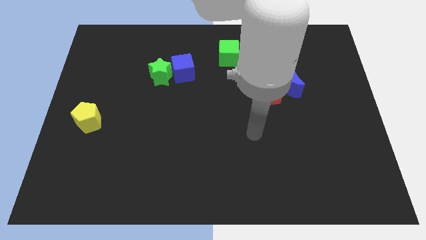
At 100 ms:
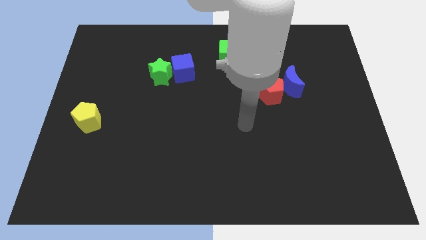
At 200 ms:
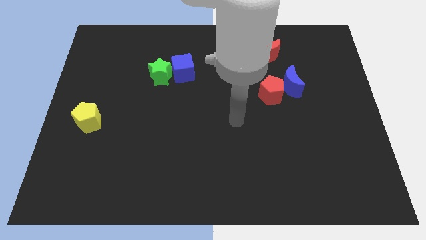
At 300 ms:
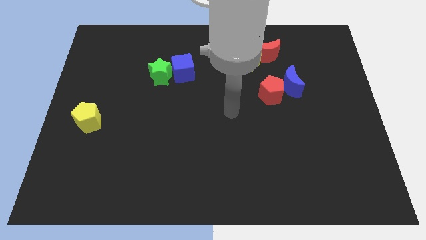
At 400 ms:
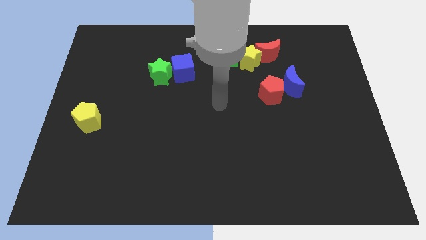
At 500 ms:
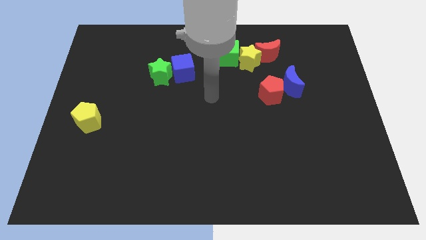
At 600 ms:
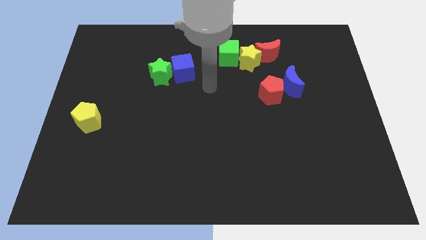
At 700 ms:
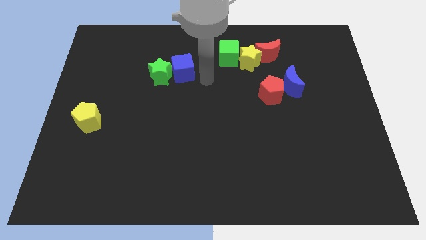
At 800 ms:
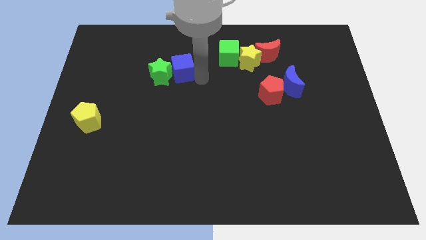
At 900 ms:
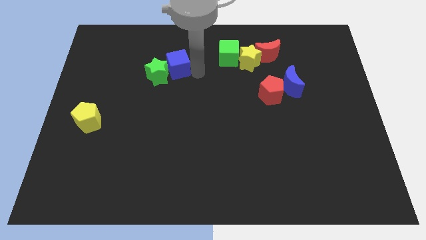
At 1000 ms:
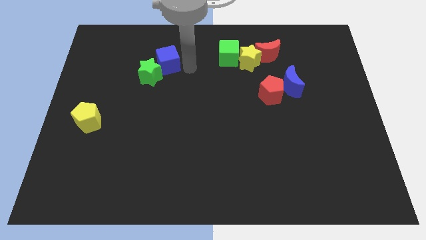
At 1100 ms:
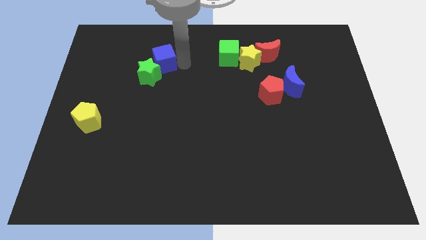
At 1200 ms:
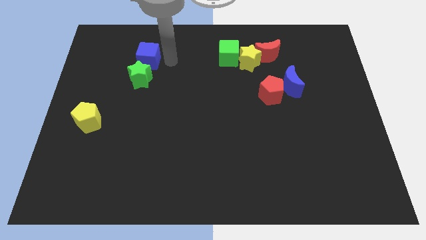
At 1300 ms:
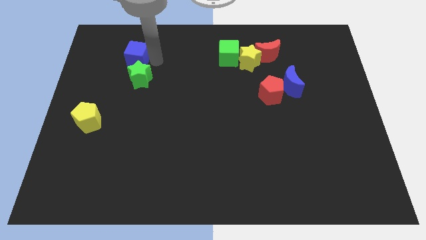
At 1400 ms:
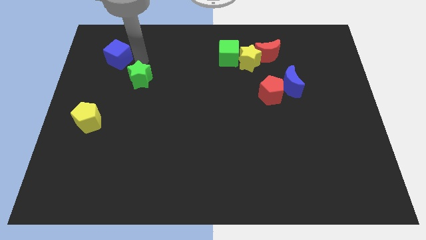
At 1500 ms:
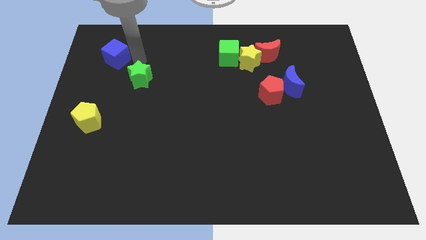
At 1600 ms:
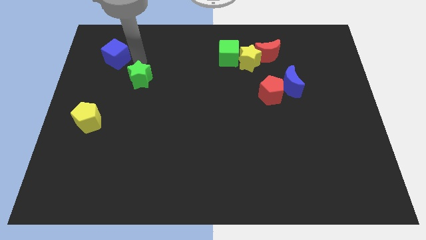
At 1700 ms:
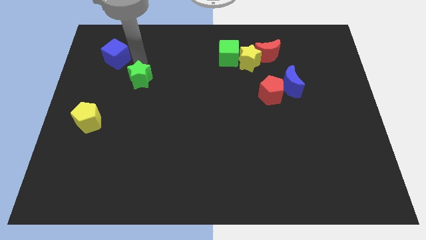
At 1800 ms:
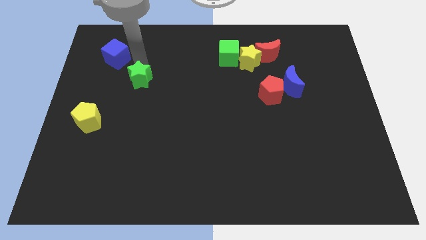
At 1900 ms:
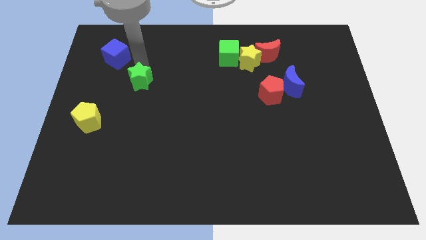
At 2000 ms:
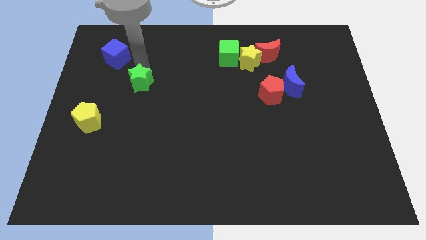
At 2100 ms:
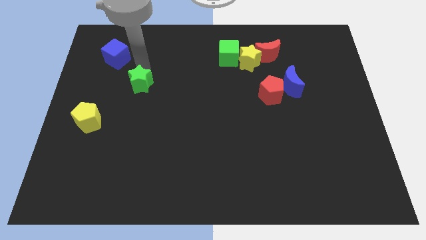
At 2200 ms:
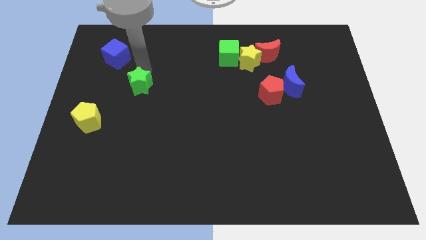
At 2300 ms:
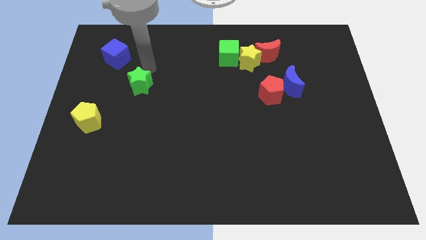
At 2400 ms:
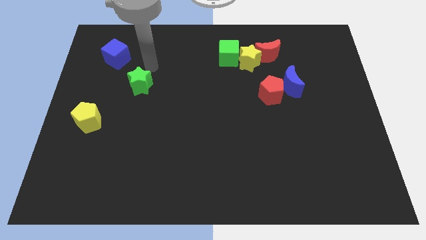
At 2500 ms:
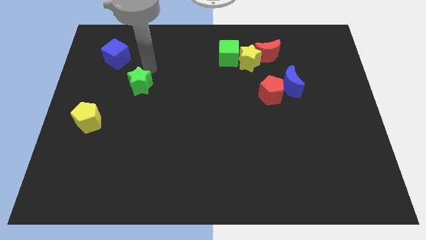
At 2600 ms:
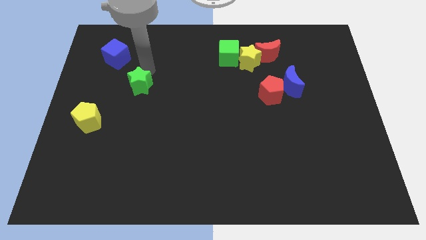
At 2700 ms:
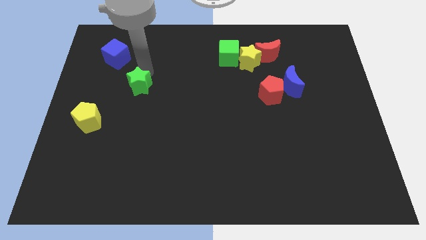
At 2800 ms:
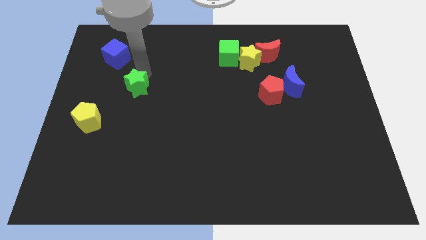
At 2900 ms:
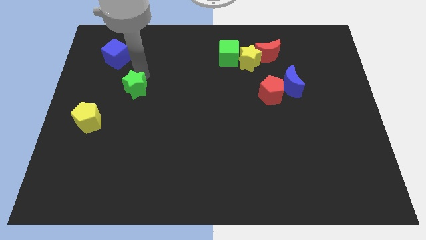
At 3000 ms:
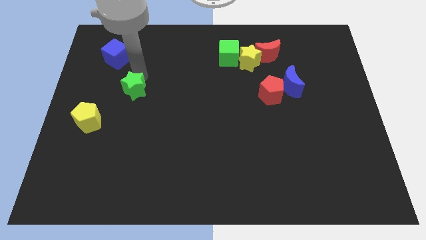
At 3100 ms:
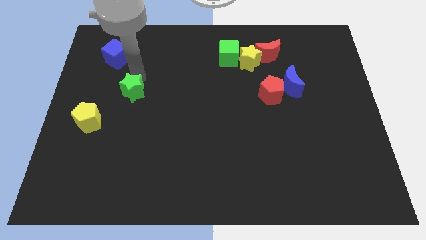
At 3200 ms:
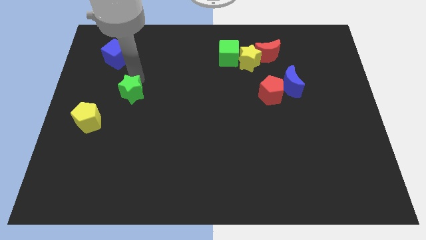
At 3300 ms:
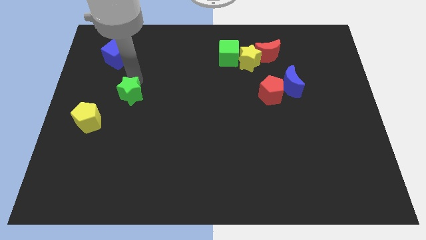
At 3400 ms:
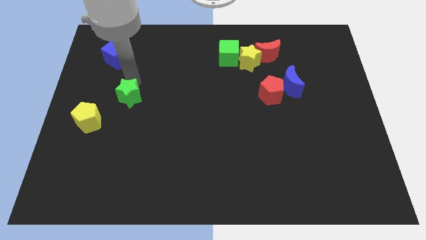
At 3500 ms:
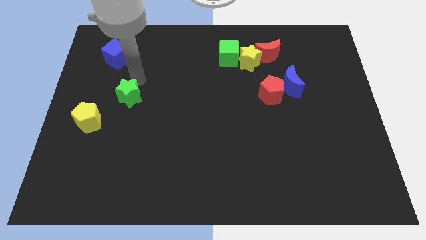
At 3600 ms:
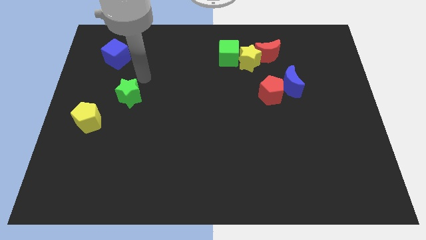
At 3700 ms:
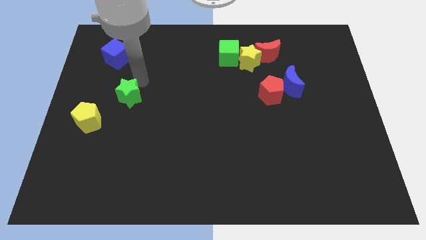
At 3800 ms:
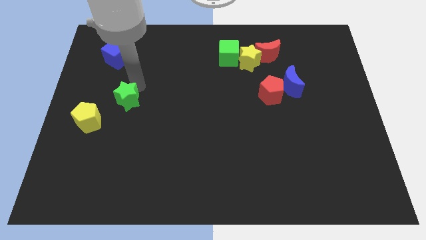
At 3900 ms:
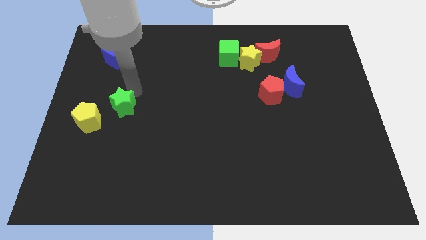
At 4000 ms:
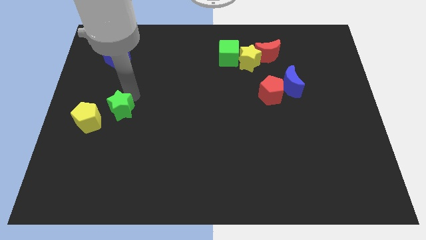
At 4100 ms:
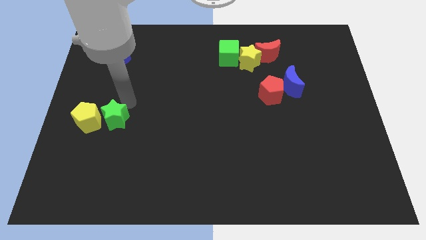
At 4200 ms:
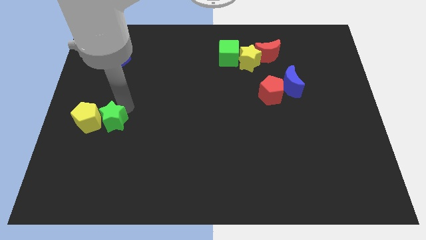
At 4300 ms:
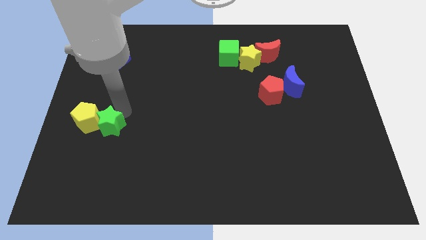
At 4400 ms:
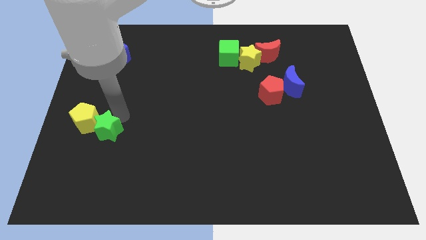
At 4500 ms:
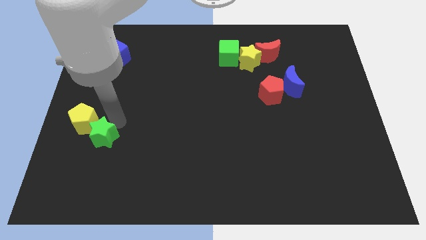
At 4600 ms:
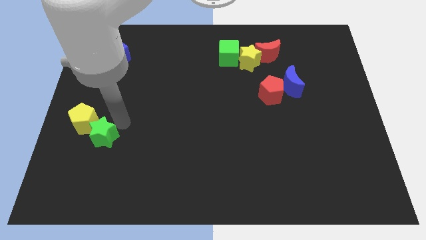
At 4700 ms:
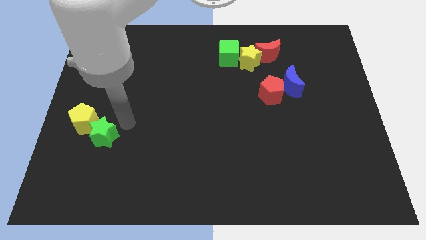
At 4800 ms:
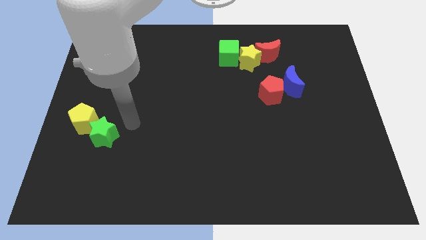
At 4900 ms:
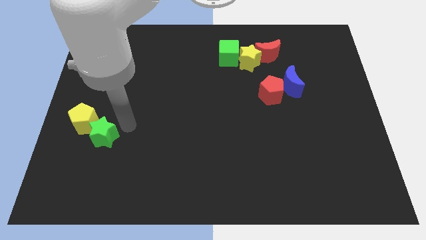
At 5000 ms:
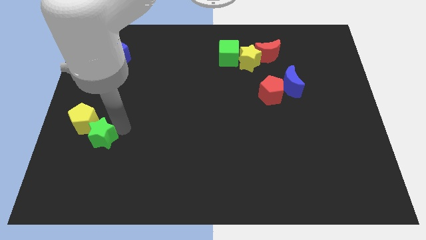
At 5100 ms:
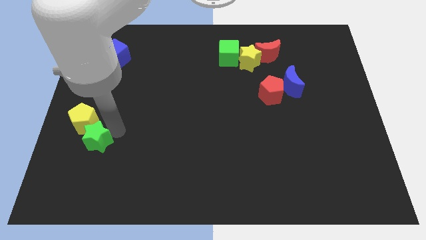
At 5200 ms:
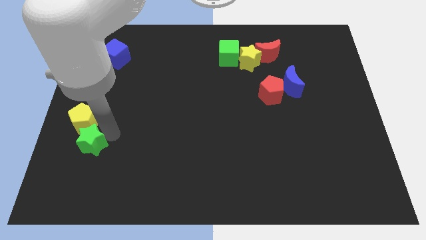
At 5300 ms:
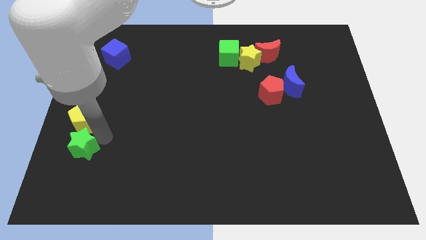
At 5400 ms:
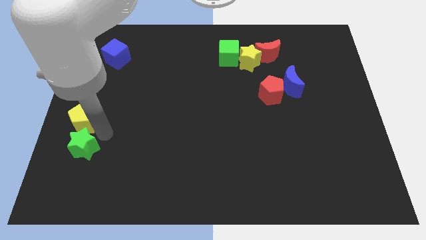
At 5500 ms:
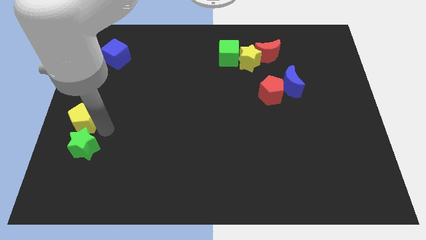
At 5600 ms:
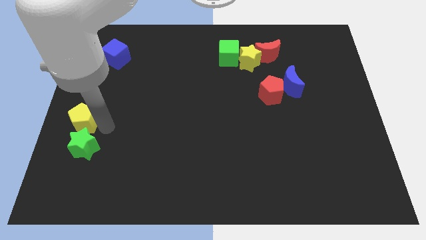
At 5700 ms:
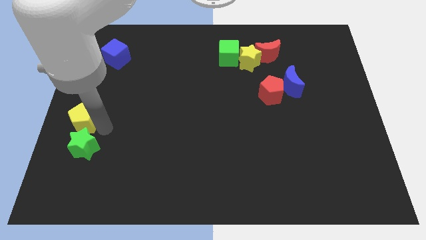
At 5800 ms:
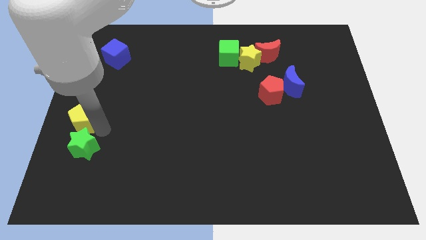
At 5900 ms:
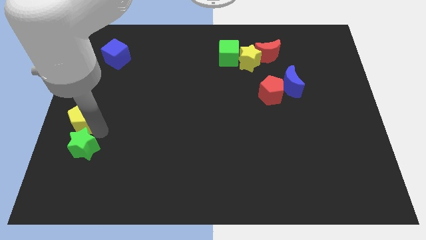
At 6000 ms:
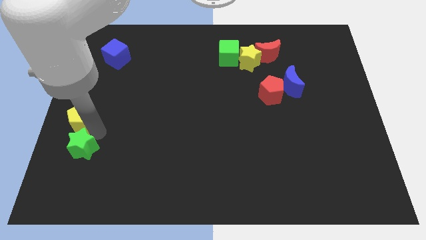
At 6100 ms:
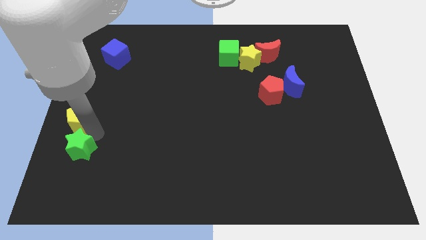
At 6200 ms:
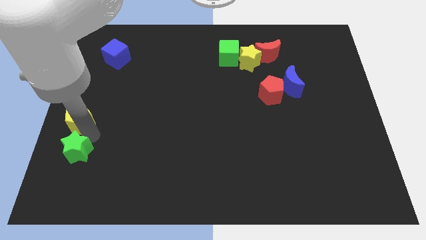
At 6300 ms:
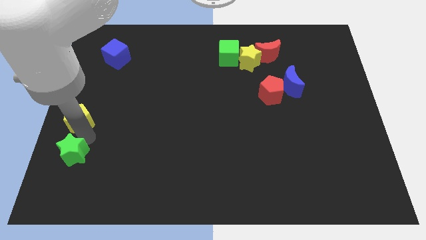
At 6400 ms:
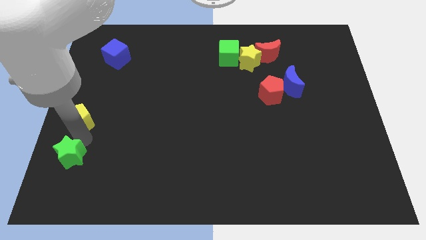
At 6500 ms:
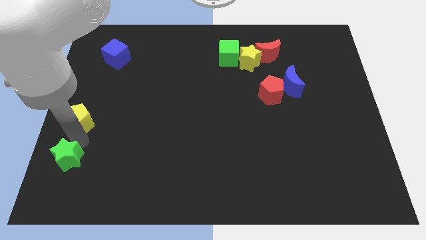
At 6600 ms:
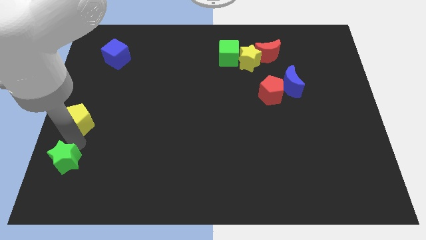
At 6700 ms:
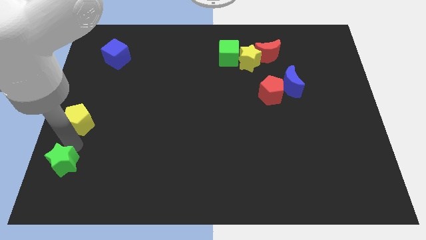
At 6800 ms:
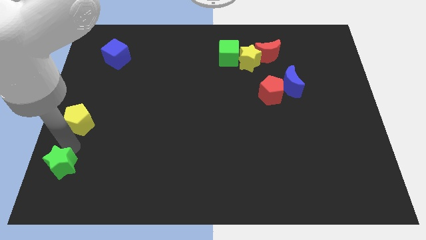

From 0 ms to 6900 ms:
put the green star to the bottom left corner

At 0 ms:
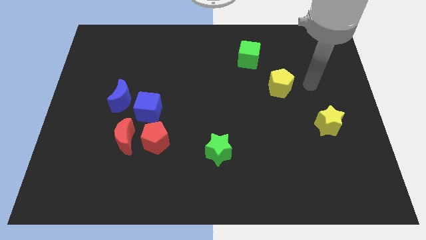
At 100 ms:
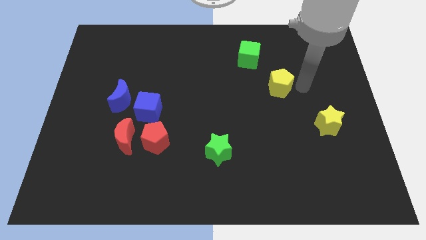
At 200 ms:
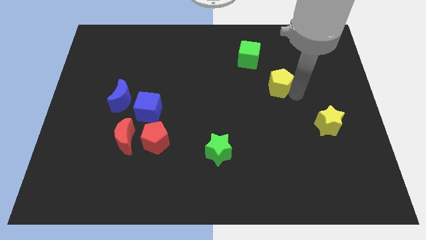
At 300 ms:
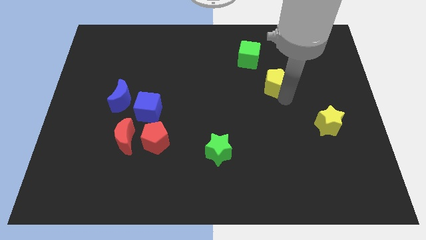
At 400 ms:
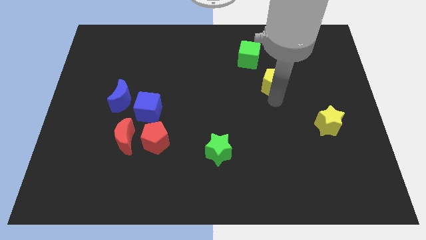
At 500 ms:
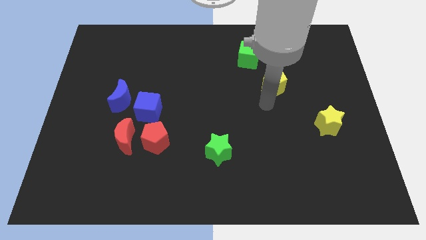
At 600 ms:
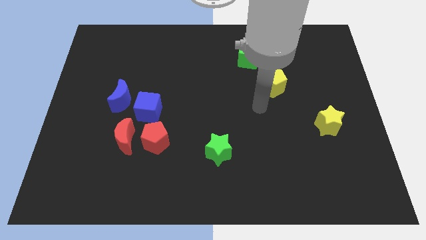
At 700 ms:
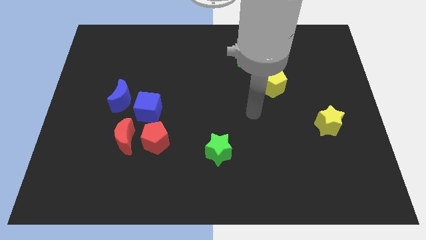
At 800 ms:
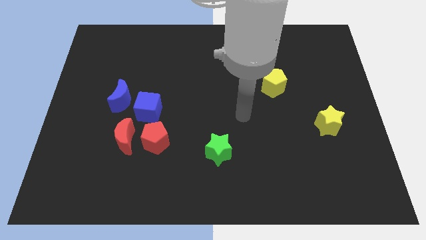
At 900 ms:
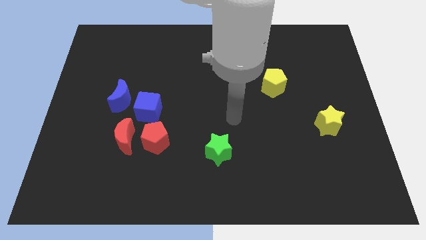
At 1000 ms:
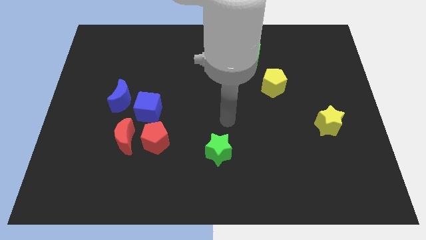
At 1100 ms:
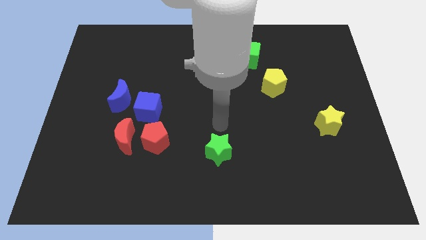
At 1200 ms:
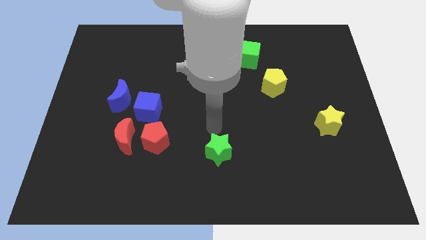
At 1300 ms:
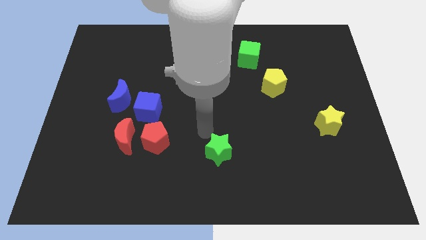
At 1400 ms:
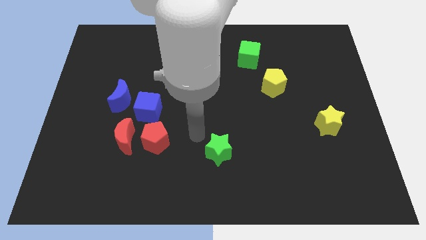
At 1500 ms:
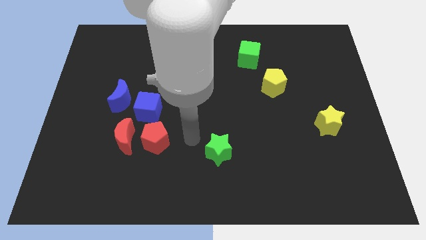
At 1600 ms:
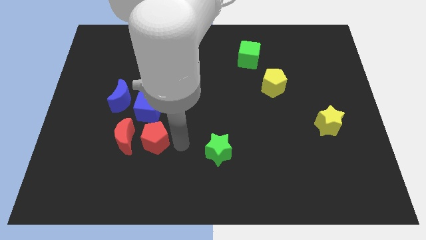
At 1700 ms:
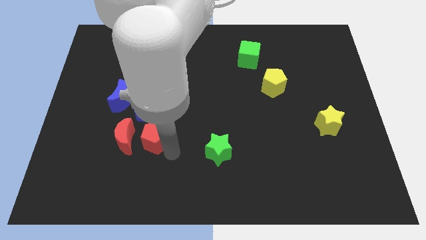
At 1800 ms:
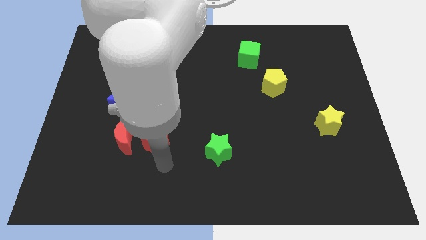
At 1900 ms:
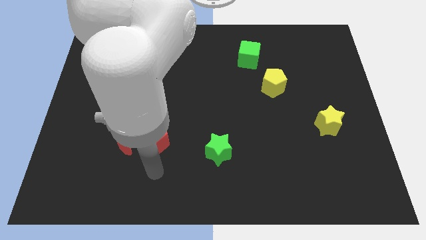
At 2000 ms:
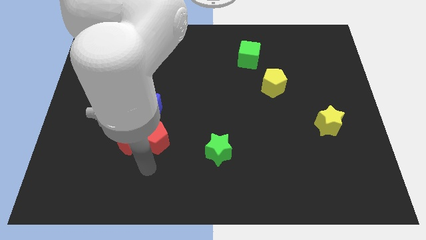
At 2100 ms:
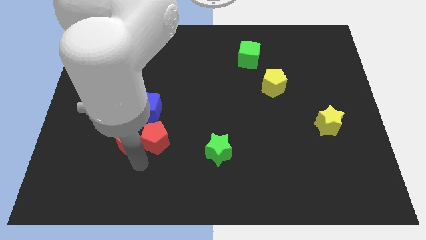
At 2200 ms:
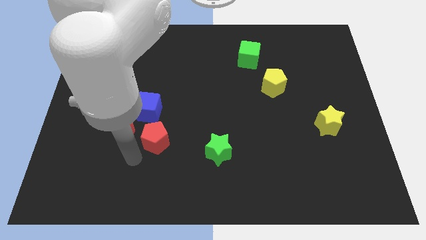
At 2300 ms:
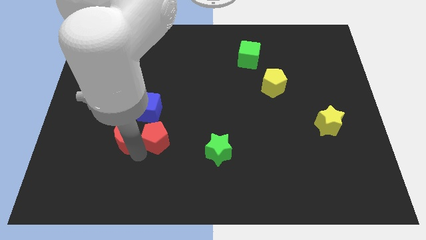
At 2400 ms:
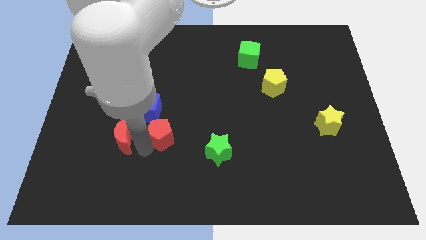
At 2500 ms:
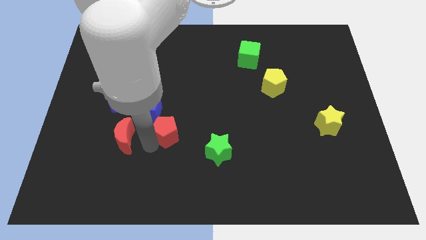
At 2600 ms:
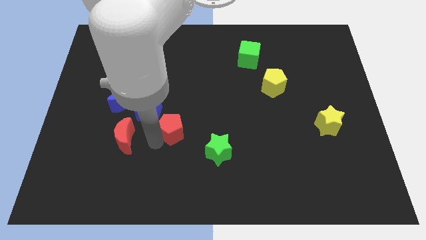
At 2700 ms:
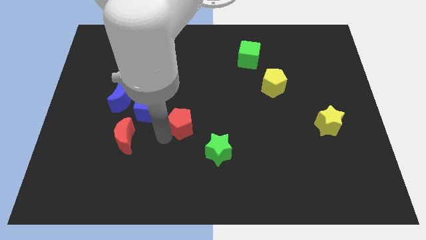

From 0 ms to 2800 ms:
put the red pentagon to the center of the board
